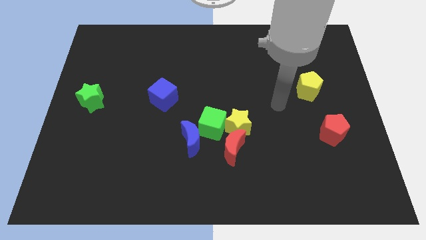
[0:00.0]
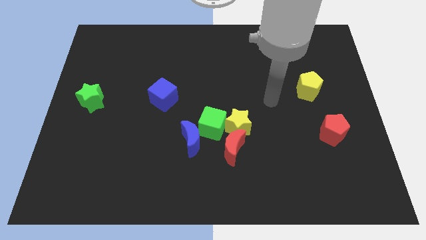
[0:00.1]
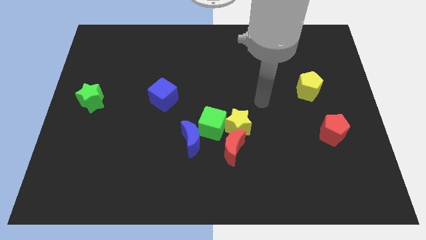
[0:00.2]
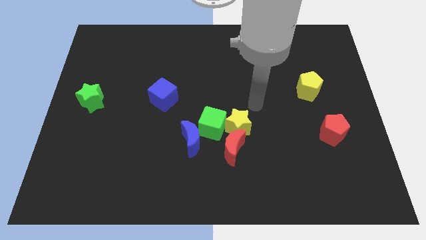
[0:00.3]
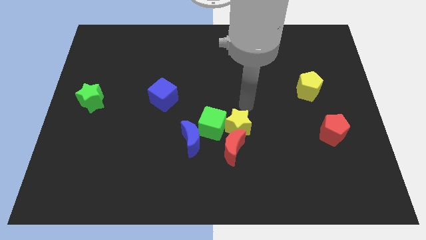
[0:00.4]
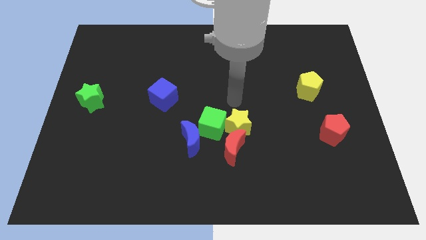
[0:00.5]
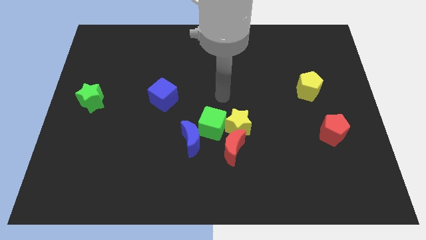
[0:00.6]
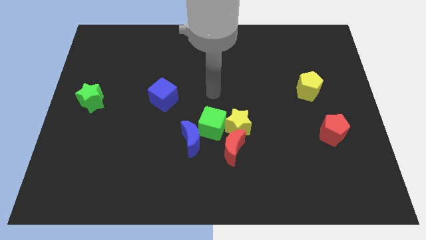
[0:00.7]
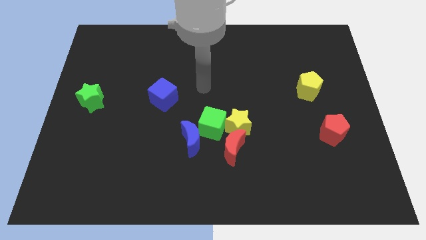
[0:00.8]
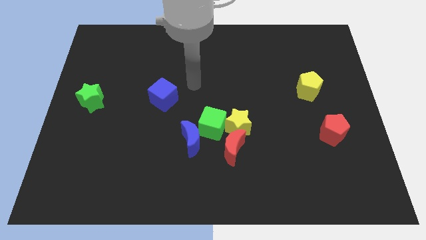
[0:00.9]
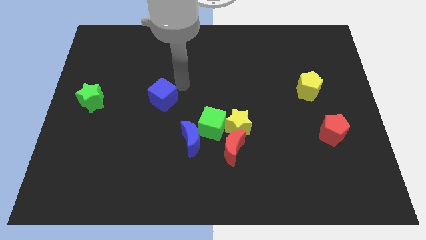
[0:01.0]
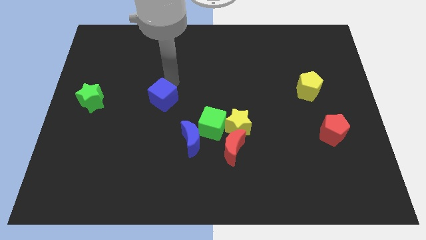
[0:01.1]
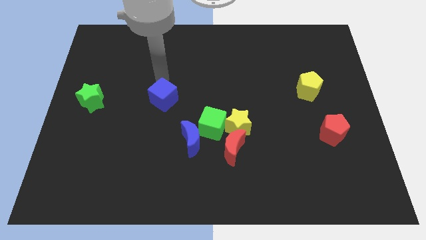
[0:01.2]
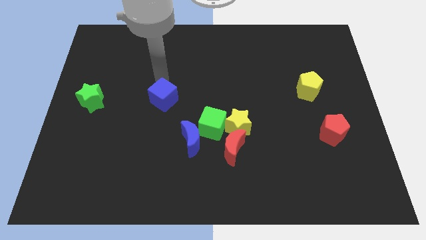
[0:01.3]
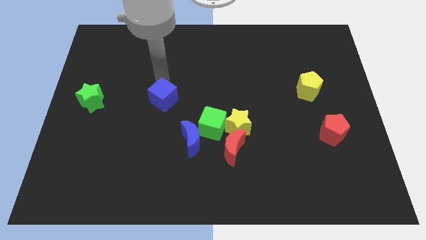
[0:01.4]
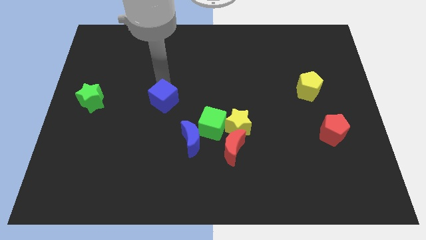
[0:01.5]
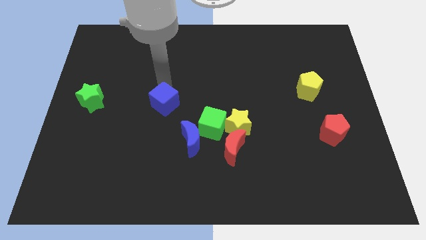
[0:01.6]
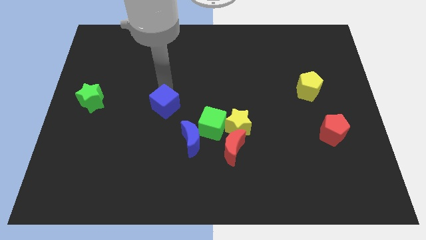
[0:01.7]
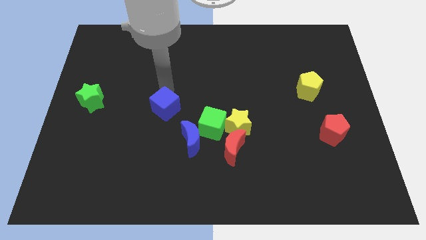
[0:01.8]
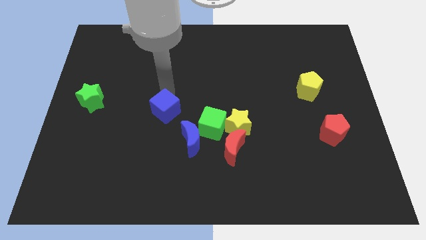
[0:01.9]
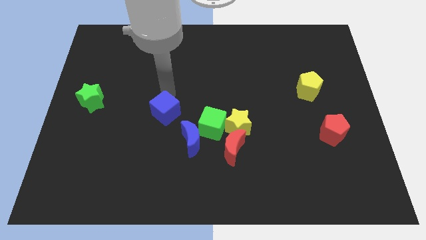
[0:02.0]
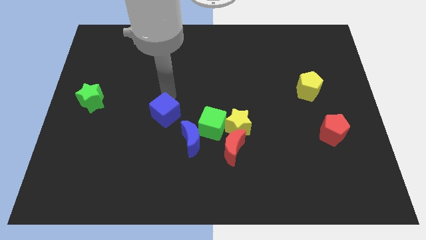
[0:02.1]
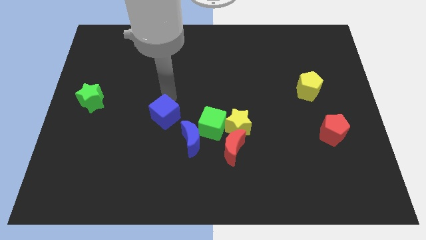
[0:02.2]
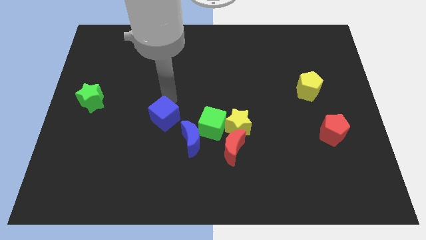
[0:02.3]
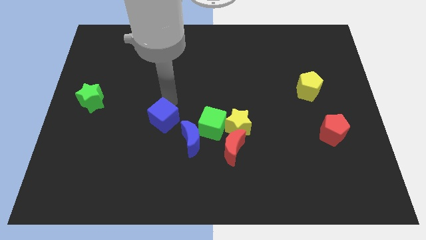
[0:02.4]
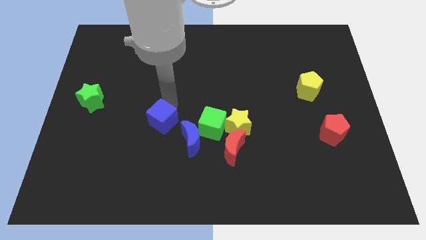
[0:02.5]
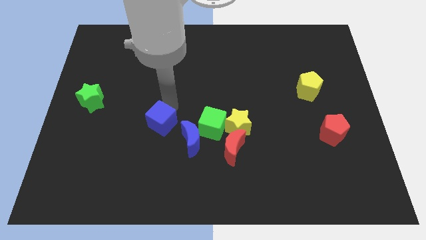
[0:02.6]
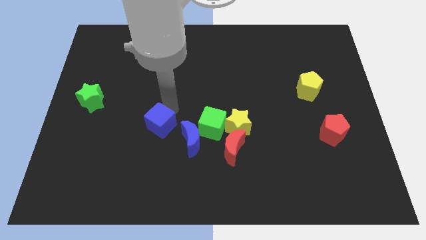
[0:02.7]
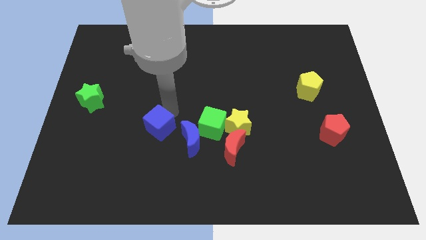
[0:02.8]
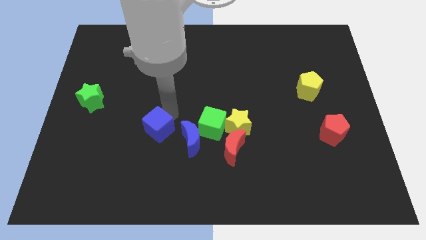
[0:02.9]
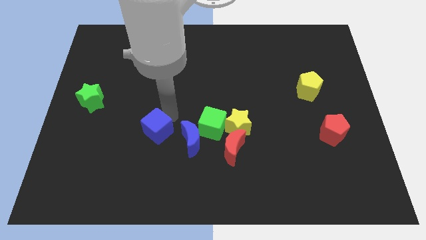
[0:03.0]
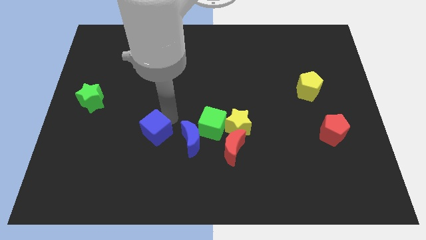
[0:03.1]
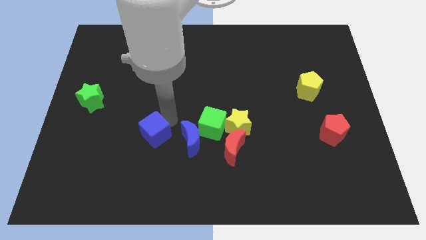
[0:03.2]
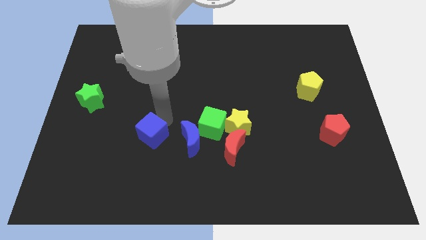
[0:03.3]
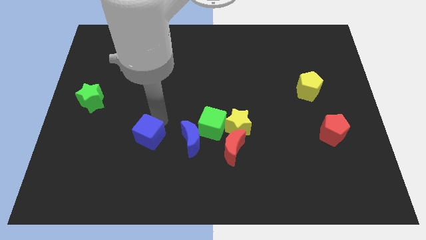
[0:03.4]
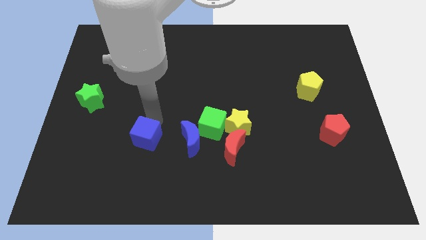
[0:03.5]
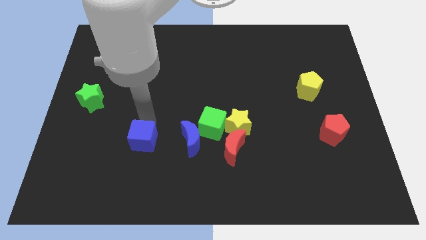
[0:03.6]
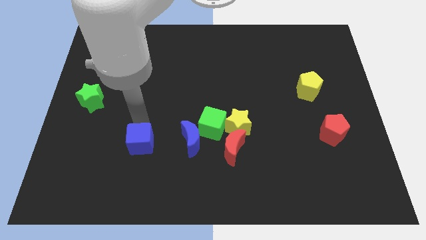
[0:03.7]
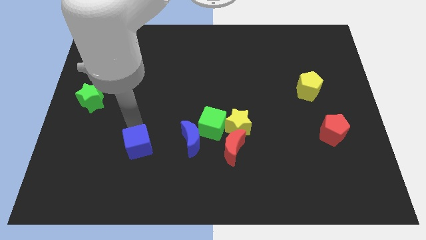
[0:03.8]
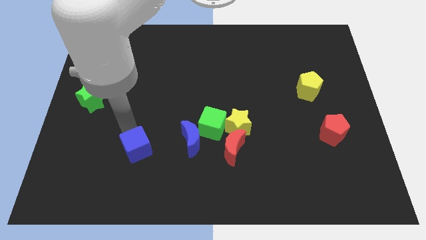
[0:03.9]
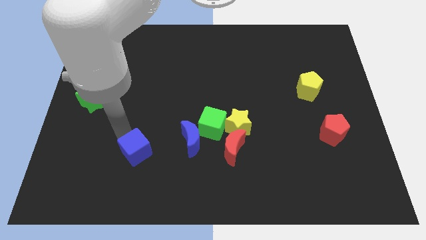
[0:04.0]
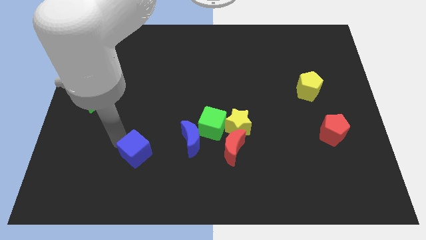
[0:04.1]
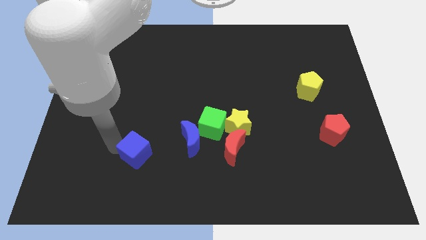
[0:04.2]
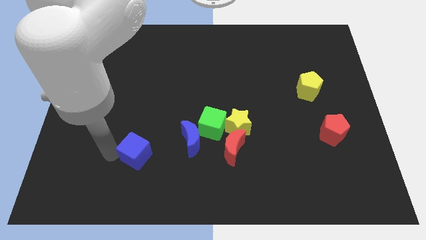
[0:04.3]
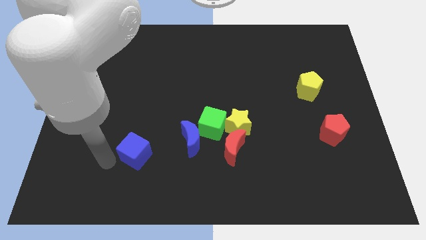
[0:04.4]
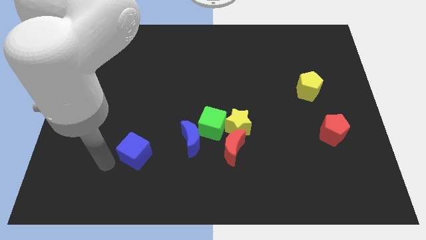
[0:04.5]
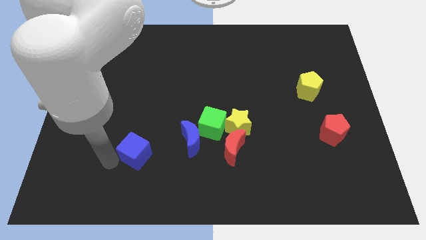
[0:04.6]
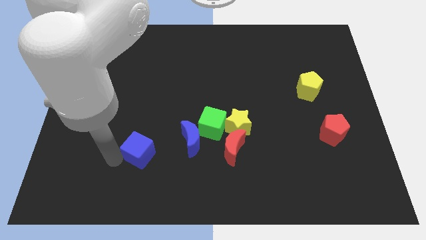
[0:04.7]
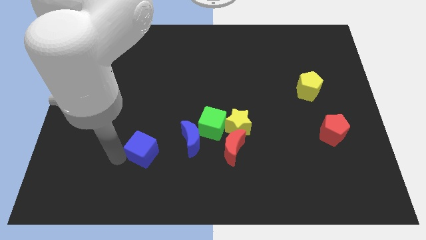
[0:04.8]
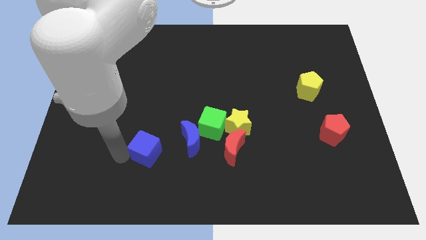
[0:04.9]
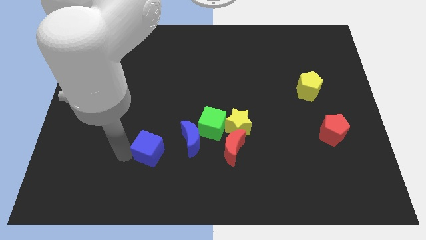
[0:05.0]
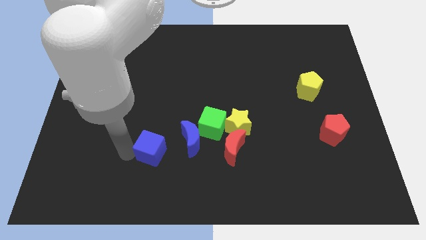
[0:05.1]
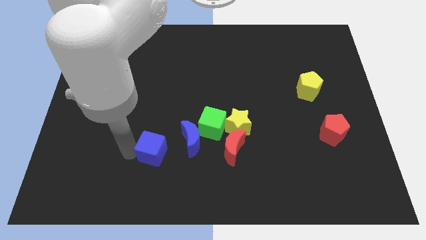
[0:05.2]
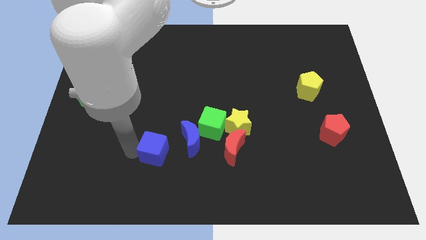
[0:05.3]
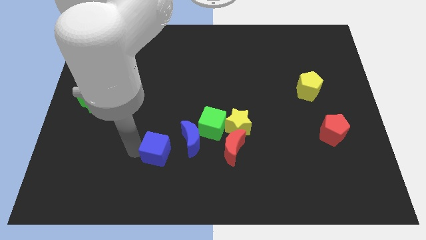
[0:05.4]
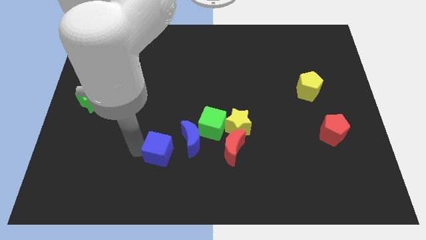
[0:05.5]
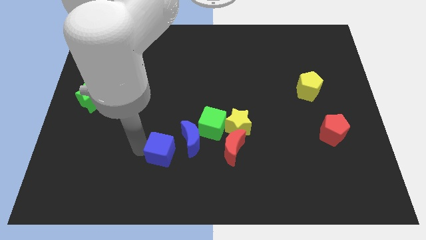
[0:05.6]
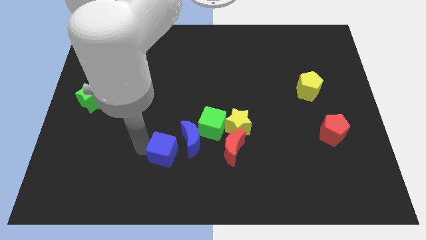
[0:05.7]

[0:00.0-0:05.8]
put the blue cube to the bottom left side of the green cube
